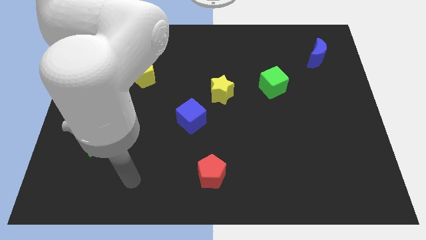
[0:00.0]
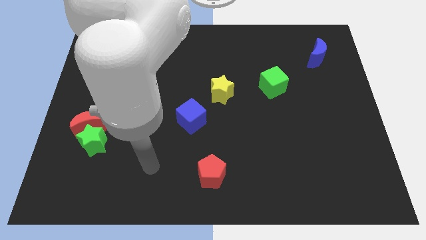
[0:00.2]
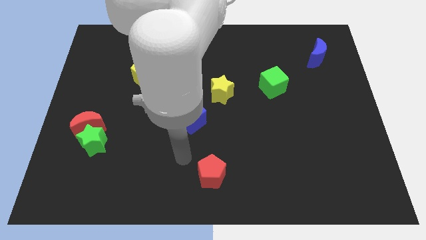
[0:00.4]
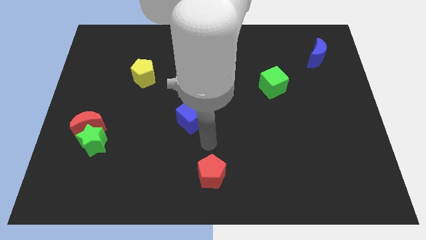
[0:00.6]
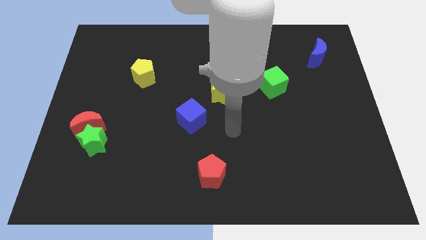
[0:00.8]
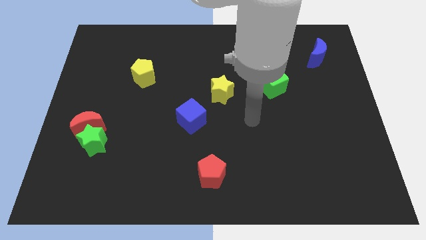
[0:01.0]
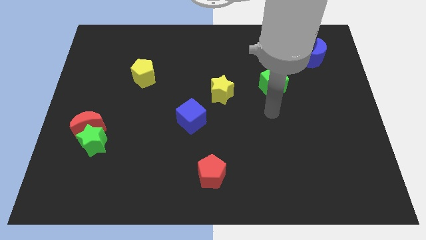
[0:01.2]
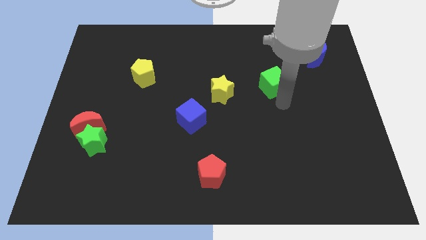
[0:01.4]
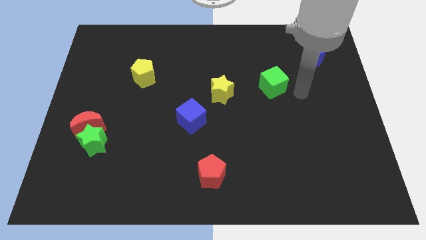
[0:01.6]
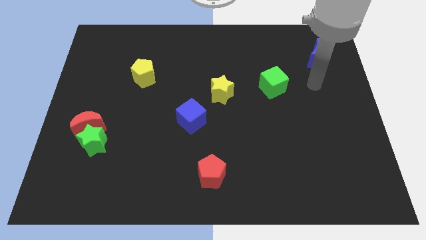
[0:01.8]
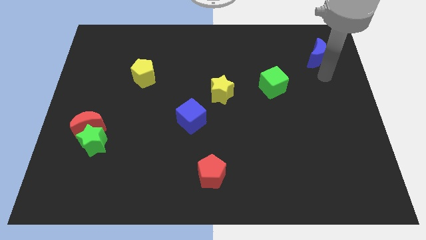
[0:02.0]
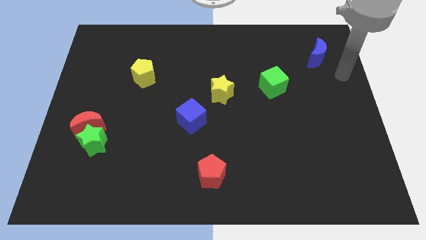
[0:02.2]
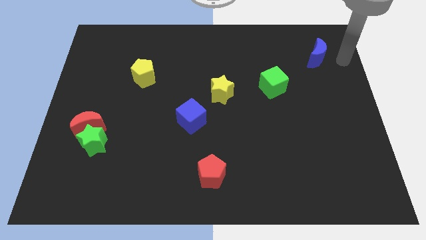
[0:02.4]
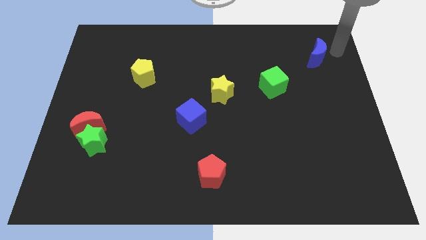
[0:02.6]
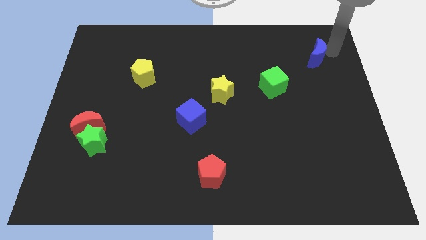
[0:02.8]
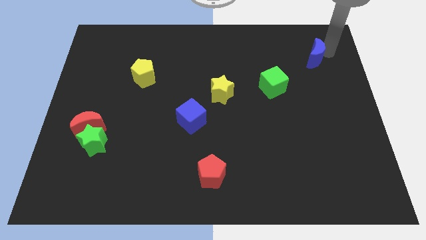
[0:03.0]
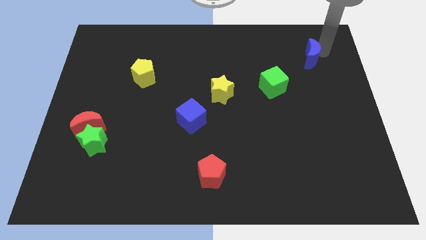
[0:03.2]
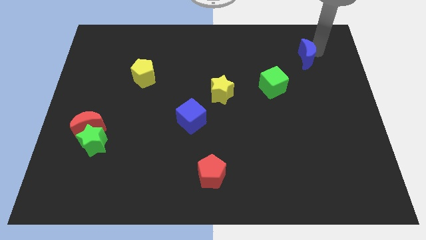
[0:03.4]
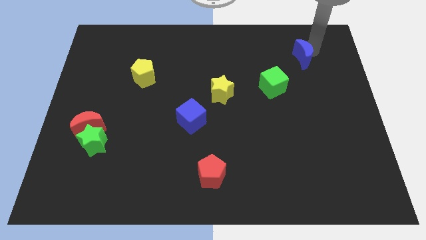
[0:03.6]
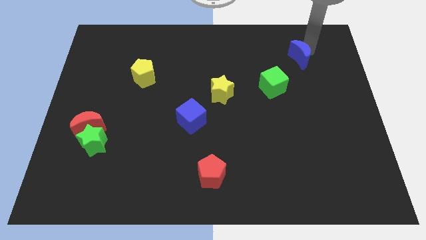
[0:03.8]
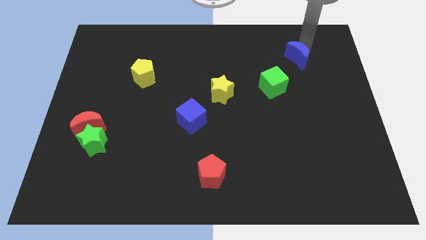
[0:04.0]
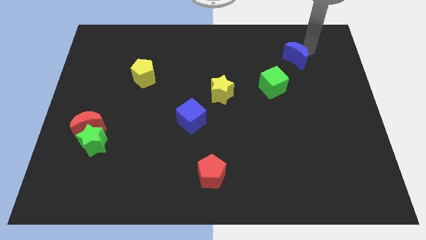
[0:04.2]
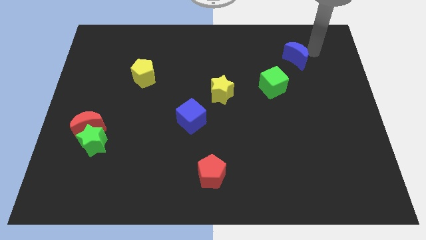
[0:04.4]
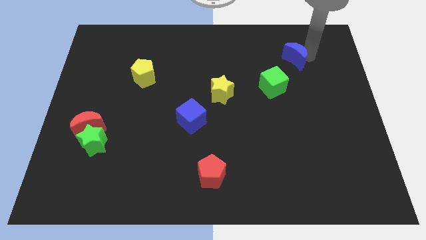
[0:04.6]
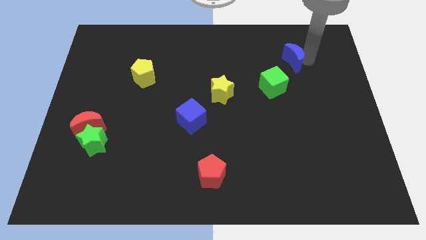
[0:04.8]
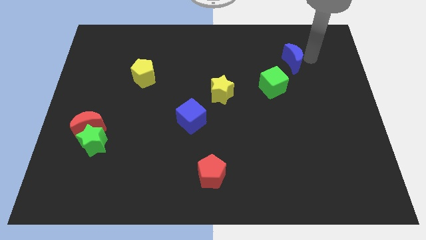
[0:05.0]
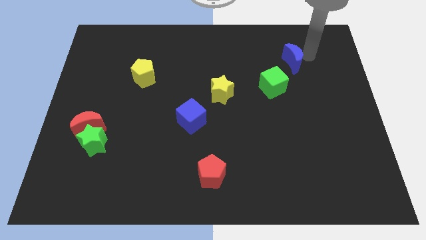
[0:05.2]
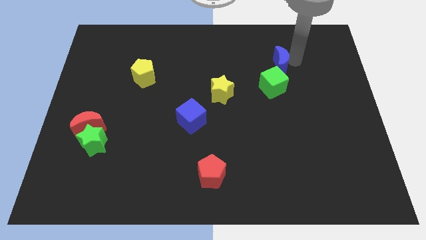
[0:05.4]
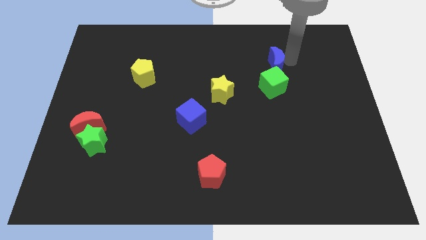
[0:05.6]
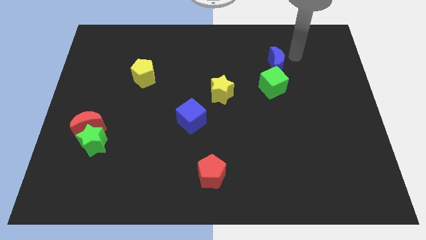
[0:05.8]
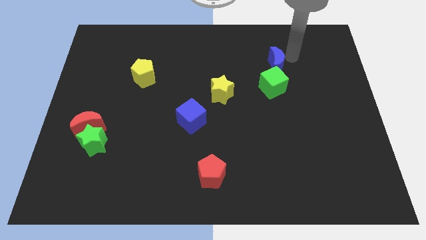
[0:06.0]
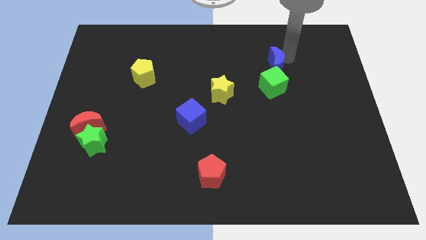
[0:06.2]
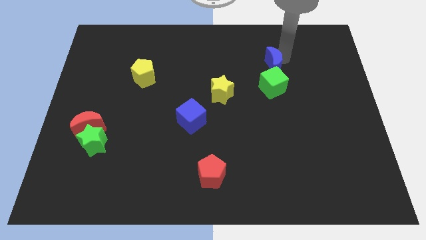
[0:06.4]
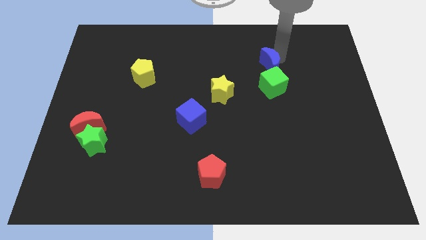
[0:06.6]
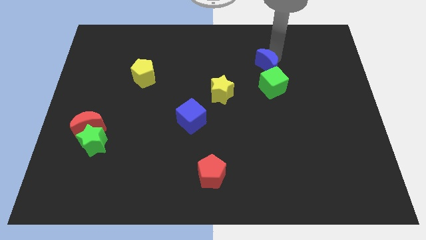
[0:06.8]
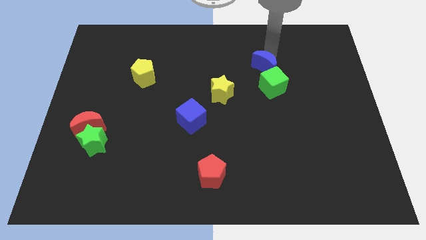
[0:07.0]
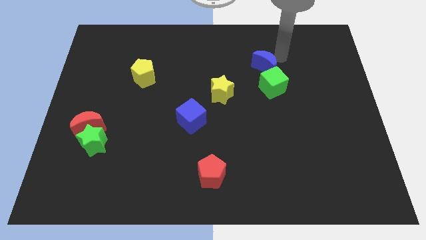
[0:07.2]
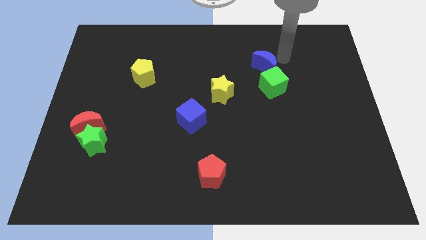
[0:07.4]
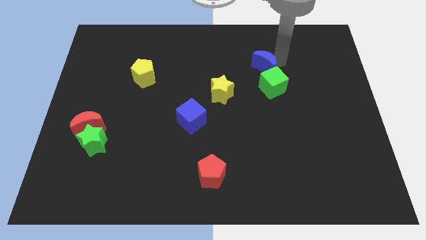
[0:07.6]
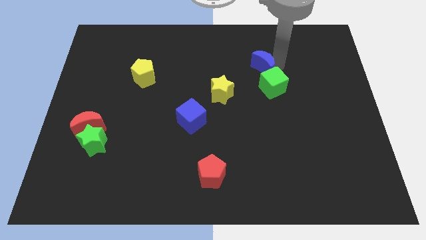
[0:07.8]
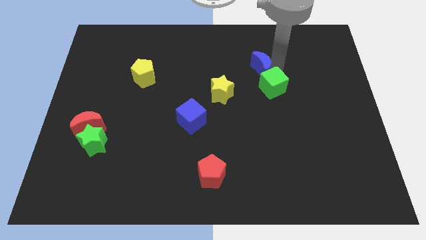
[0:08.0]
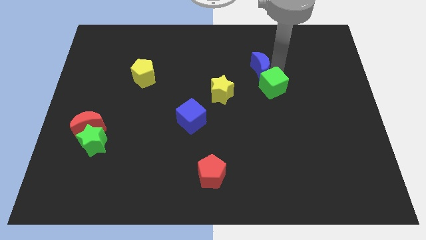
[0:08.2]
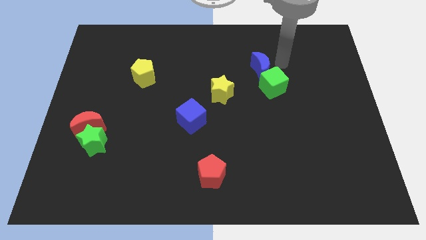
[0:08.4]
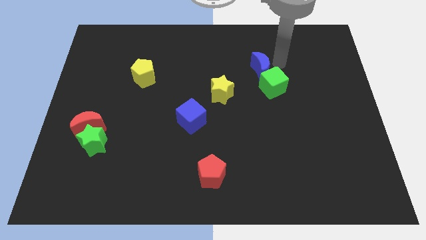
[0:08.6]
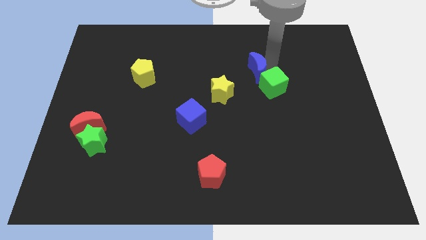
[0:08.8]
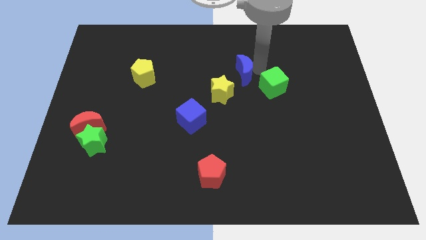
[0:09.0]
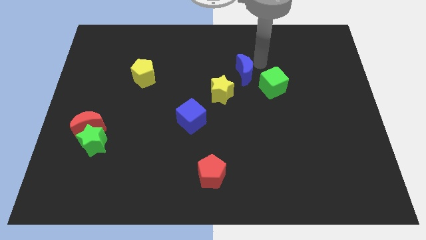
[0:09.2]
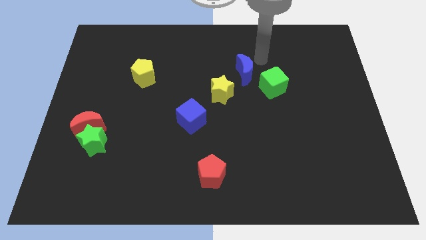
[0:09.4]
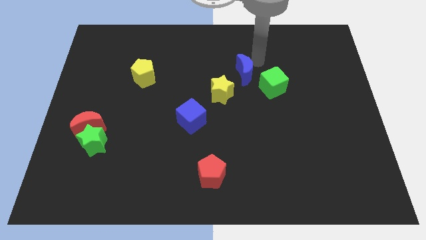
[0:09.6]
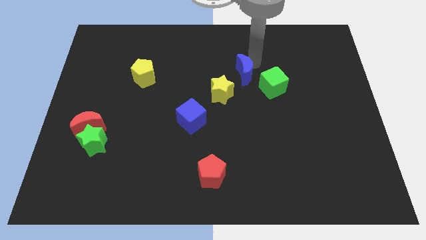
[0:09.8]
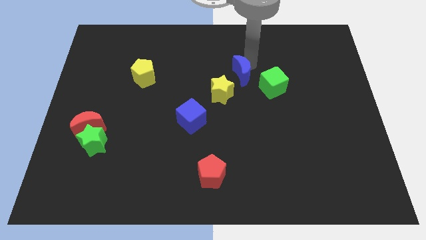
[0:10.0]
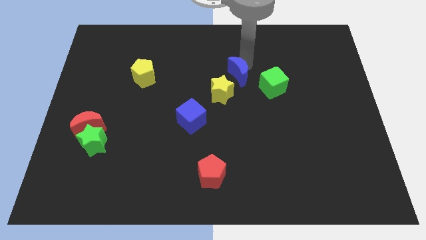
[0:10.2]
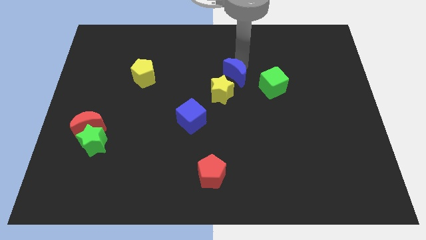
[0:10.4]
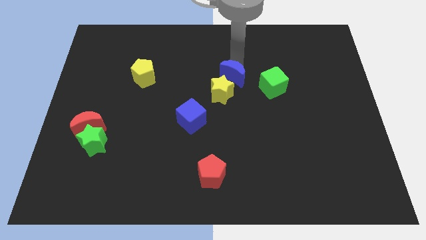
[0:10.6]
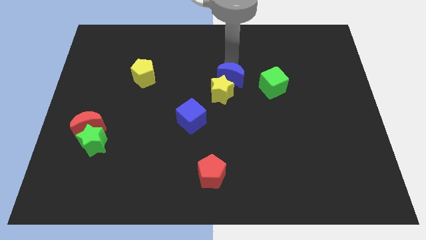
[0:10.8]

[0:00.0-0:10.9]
slide the blue moon to the yellow star

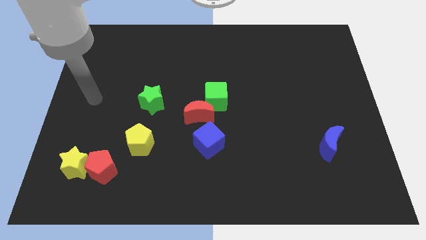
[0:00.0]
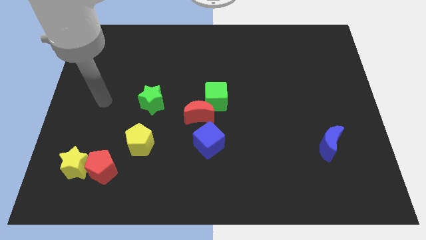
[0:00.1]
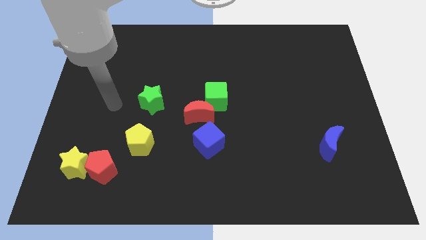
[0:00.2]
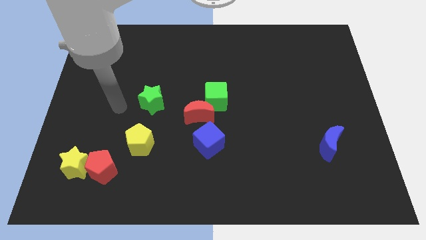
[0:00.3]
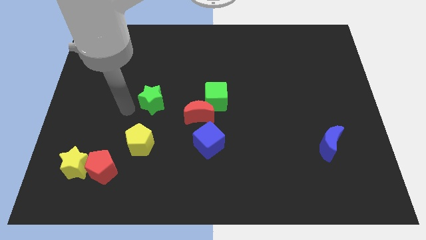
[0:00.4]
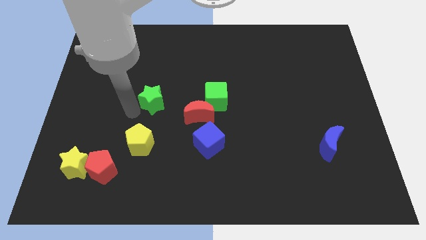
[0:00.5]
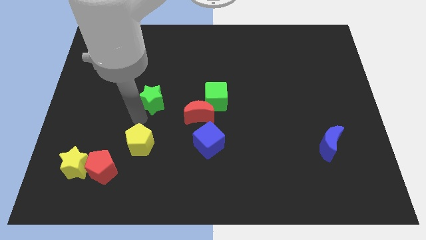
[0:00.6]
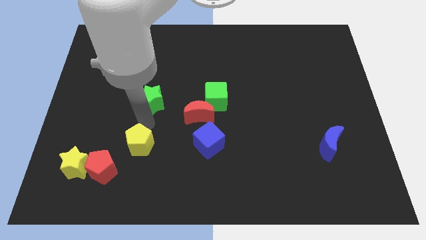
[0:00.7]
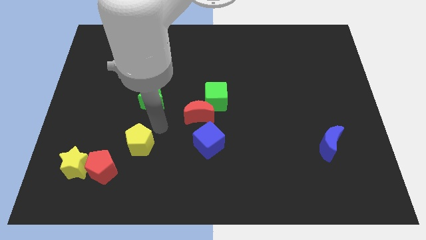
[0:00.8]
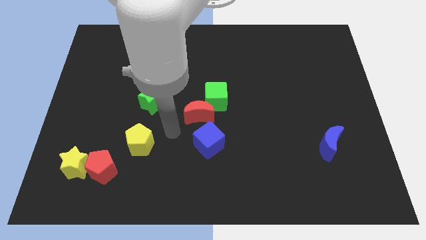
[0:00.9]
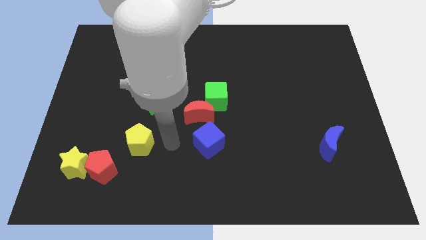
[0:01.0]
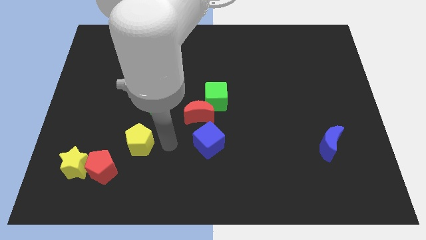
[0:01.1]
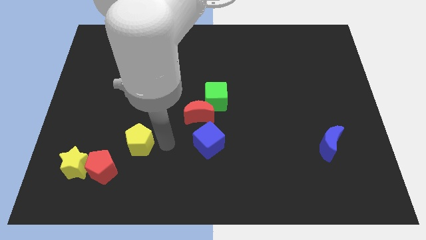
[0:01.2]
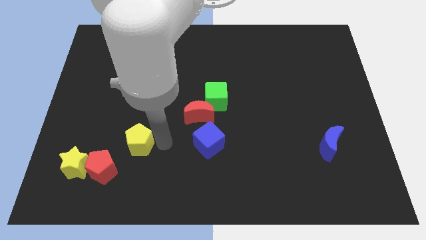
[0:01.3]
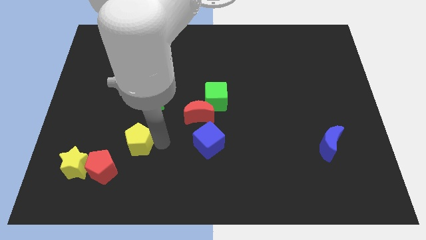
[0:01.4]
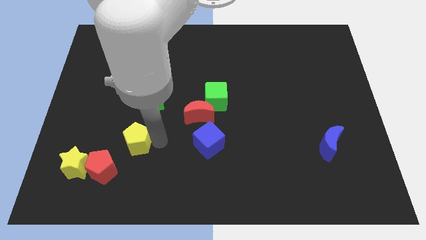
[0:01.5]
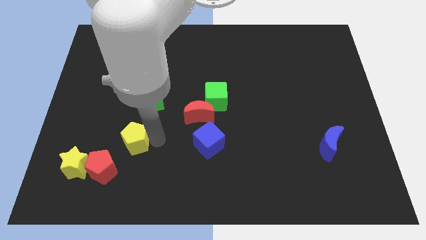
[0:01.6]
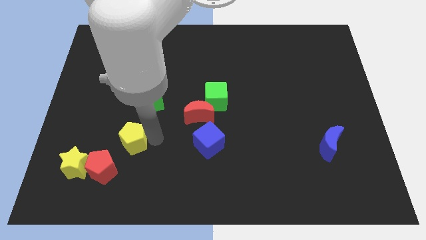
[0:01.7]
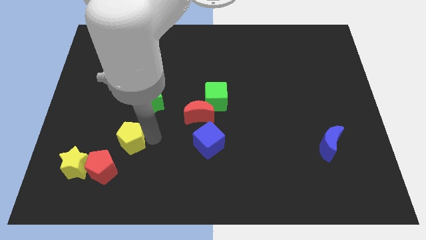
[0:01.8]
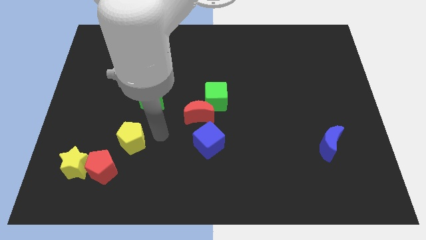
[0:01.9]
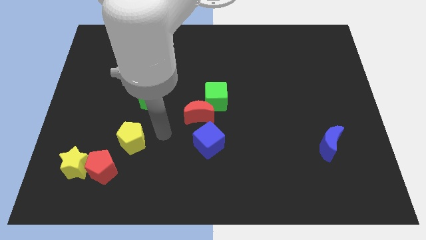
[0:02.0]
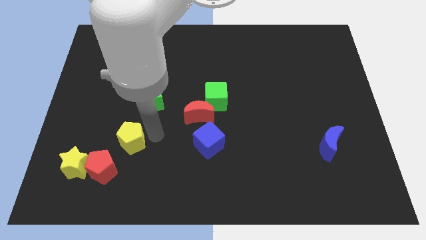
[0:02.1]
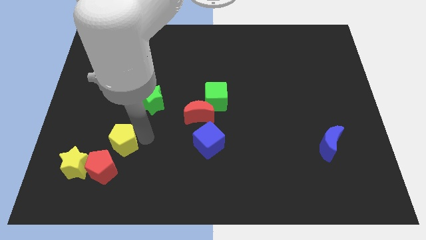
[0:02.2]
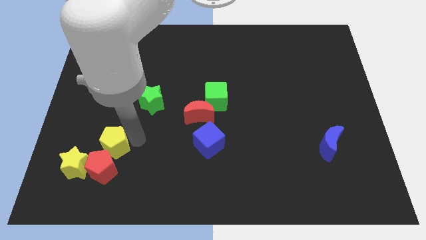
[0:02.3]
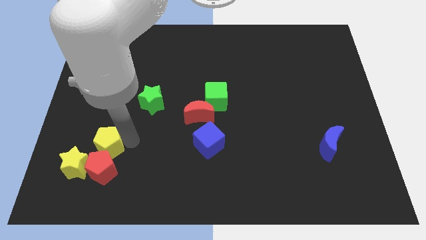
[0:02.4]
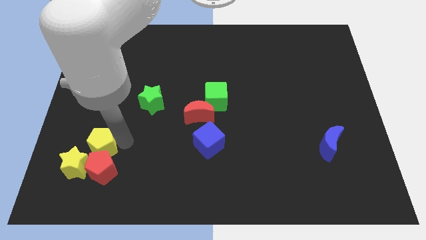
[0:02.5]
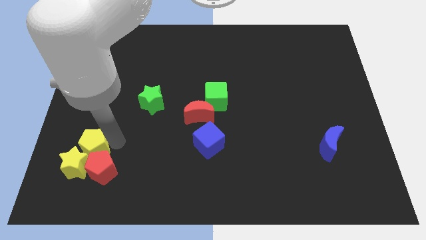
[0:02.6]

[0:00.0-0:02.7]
move the yellow pentagon towards the yellow star
